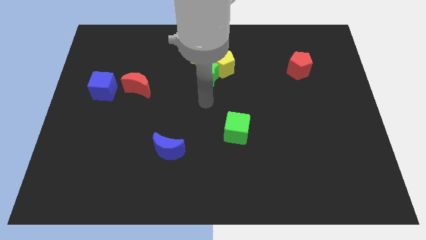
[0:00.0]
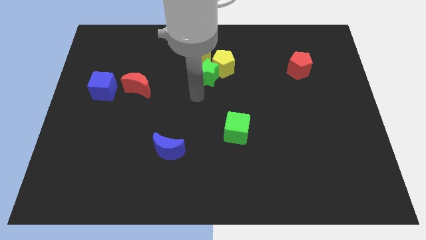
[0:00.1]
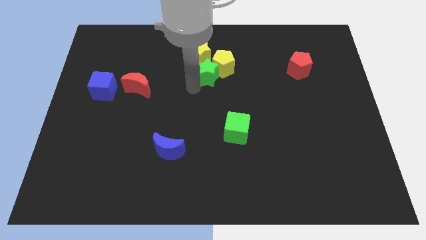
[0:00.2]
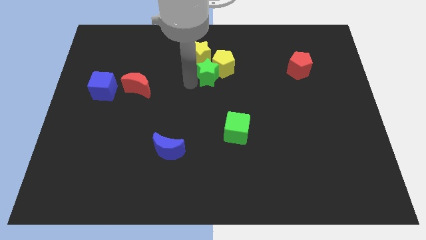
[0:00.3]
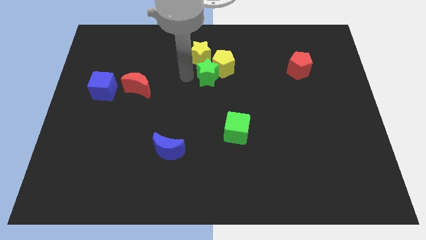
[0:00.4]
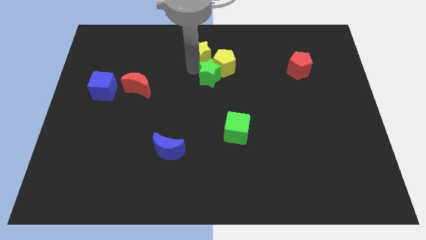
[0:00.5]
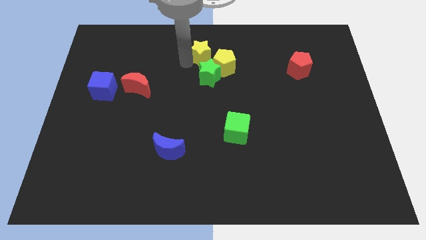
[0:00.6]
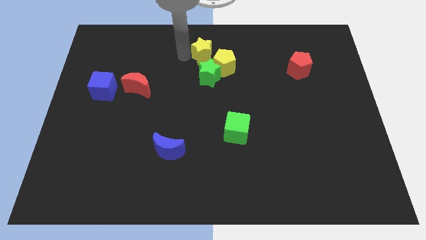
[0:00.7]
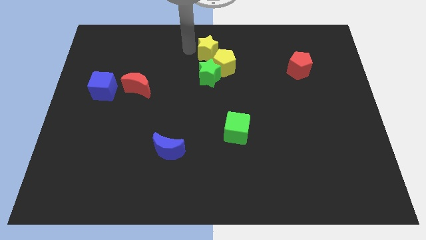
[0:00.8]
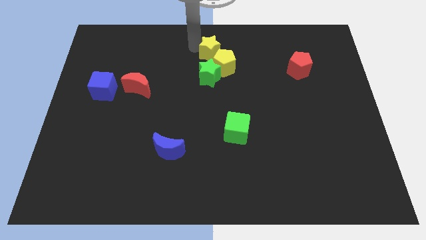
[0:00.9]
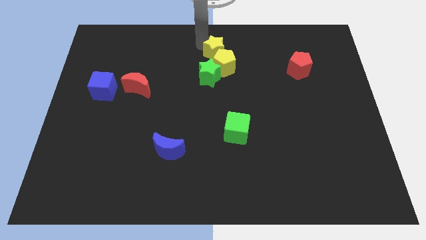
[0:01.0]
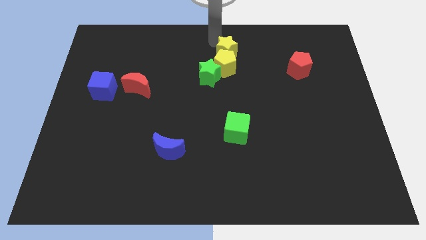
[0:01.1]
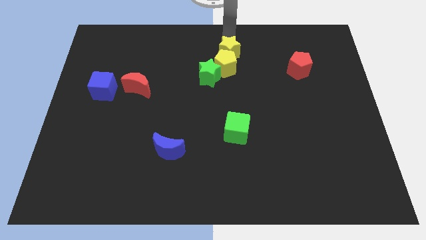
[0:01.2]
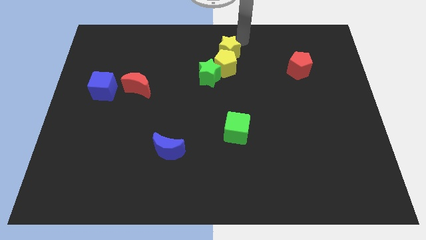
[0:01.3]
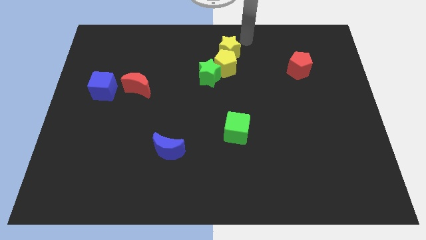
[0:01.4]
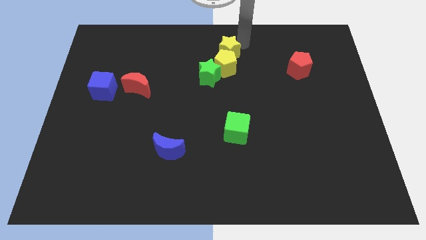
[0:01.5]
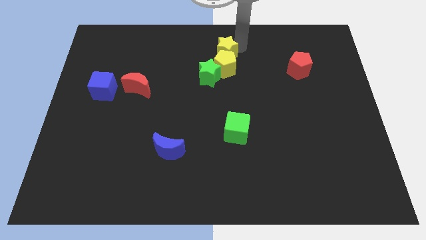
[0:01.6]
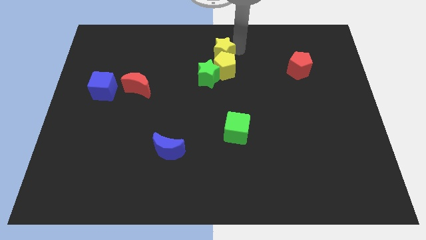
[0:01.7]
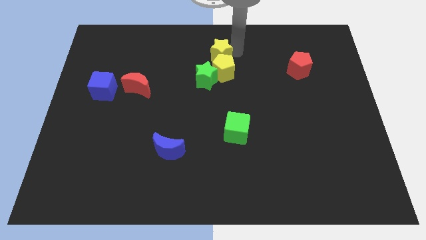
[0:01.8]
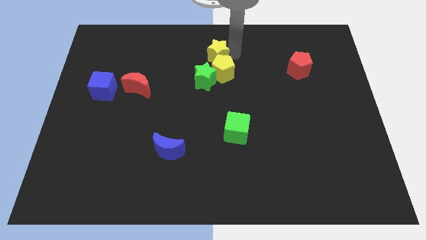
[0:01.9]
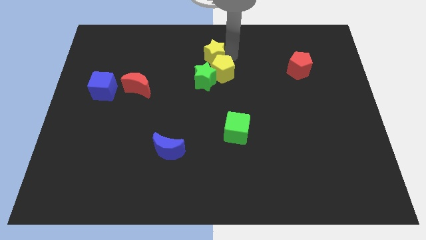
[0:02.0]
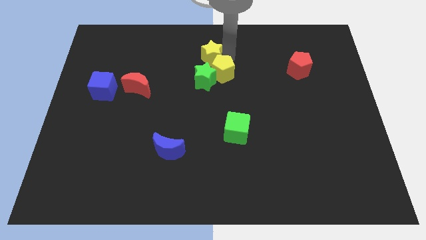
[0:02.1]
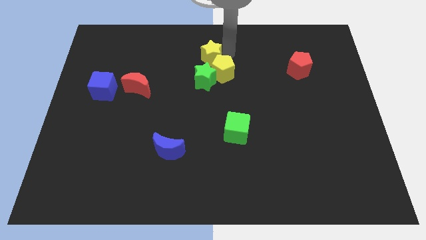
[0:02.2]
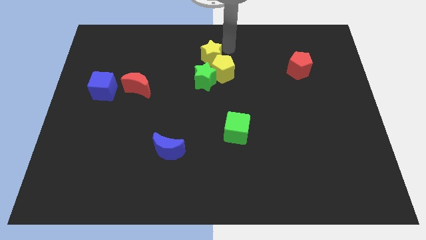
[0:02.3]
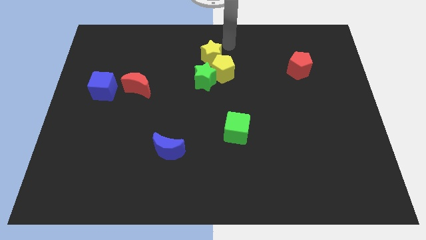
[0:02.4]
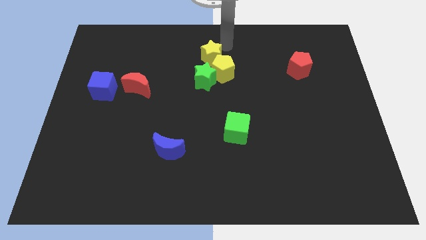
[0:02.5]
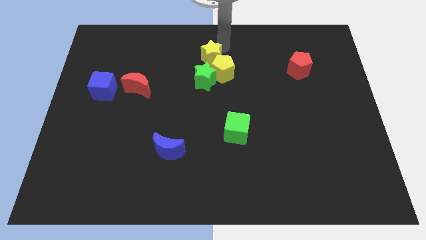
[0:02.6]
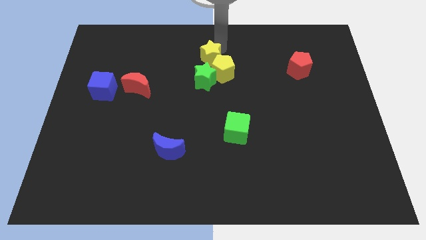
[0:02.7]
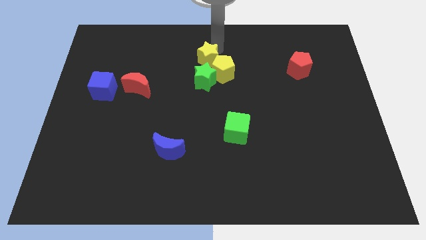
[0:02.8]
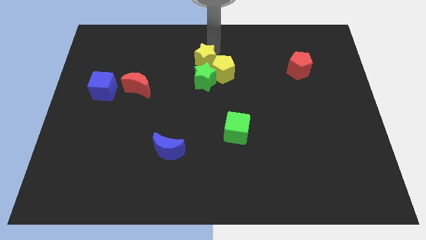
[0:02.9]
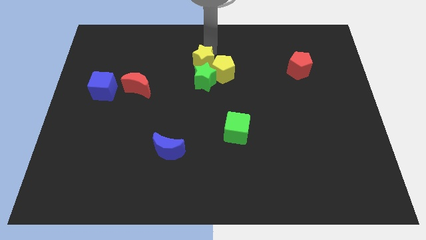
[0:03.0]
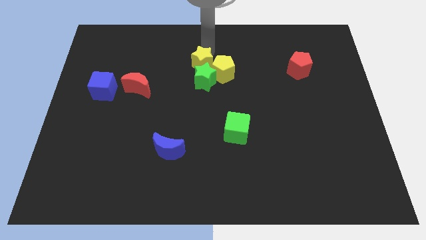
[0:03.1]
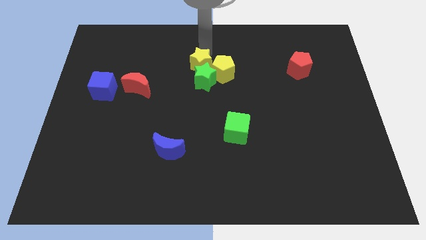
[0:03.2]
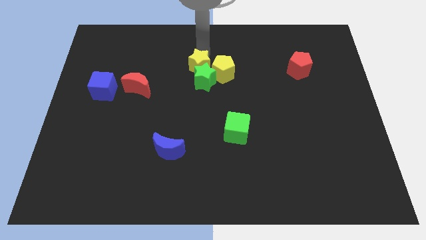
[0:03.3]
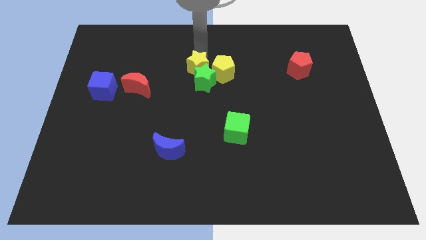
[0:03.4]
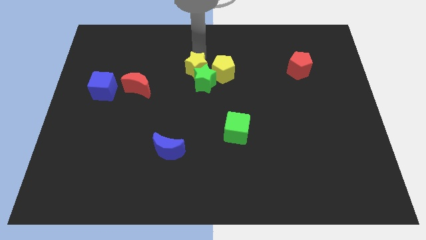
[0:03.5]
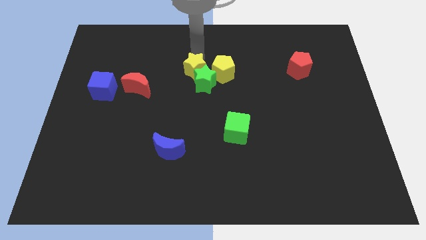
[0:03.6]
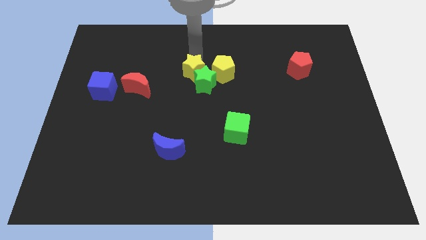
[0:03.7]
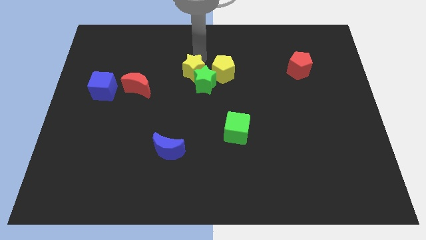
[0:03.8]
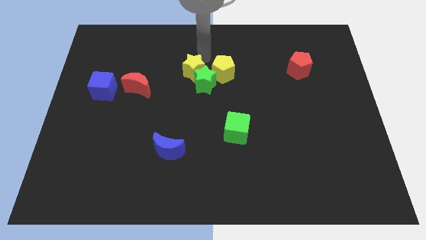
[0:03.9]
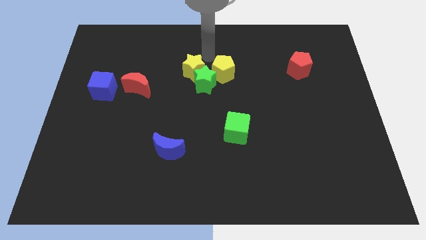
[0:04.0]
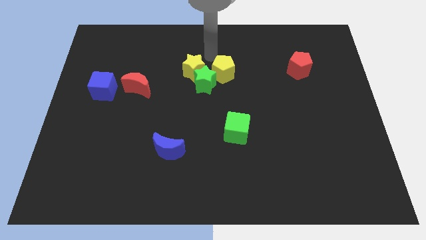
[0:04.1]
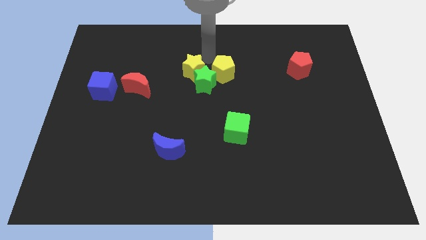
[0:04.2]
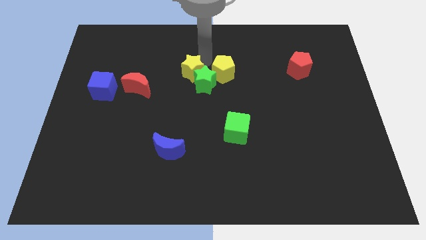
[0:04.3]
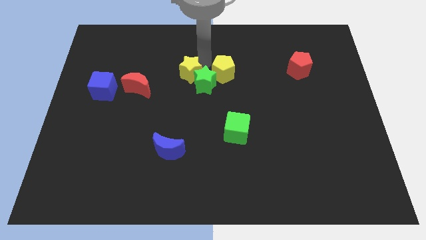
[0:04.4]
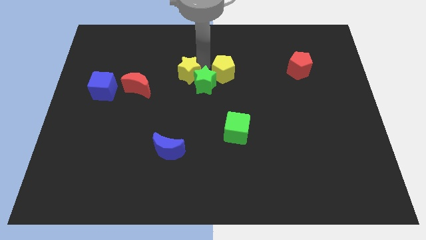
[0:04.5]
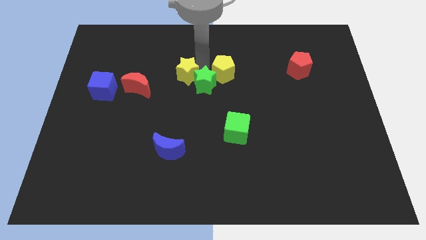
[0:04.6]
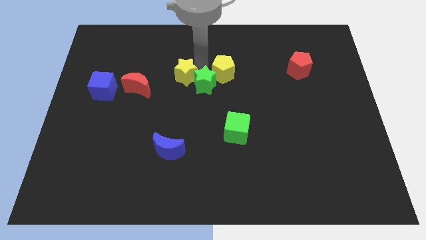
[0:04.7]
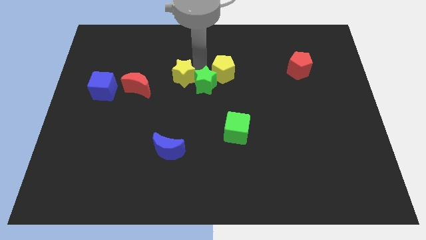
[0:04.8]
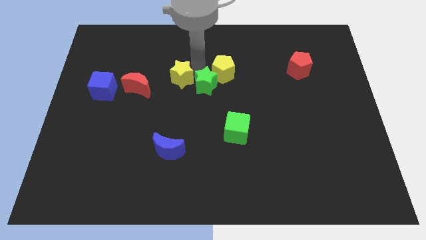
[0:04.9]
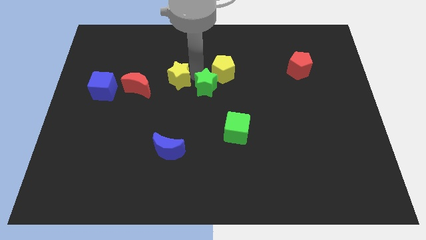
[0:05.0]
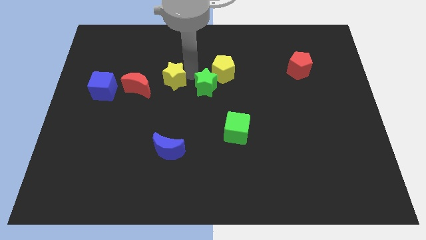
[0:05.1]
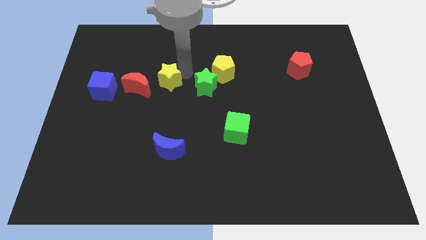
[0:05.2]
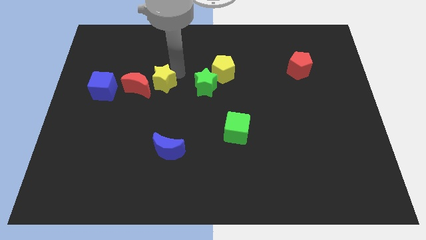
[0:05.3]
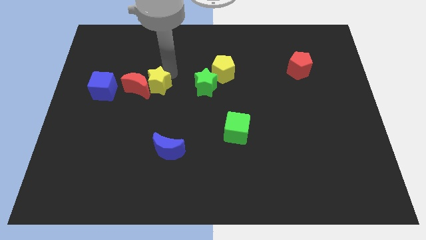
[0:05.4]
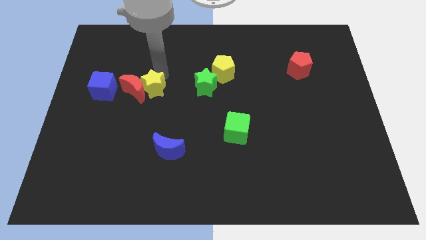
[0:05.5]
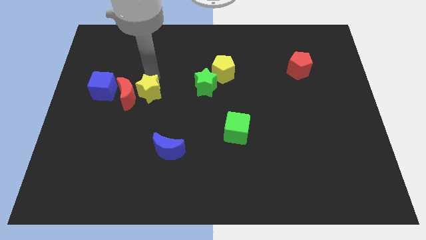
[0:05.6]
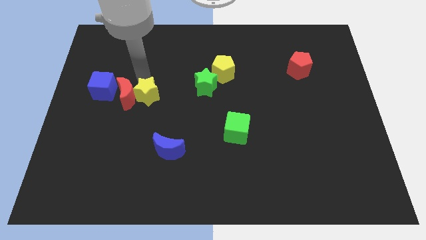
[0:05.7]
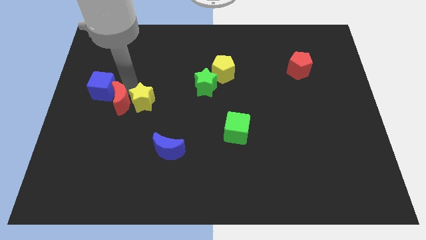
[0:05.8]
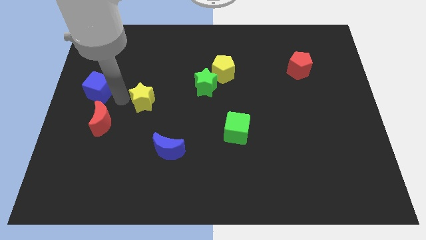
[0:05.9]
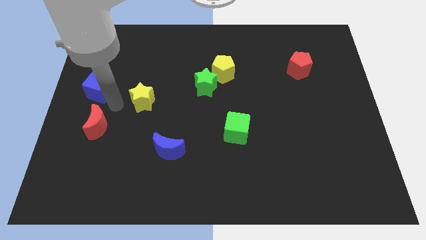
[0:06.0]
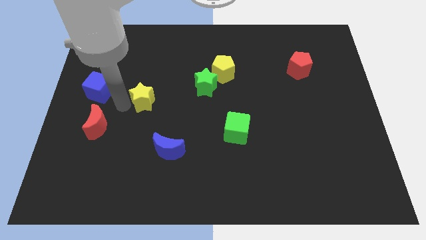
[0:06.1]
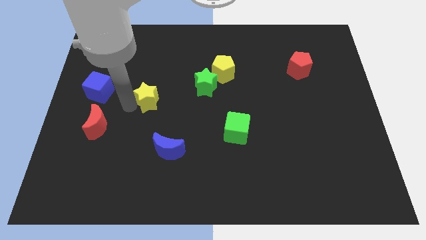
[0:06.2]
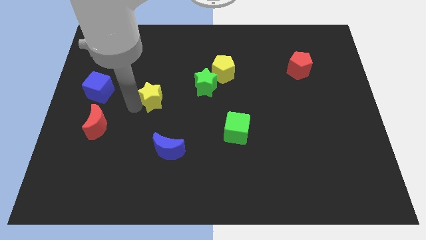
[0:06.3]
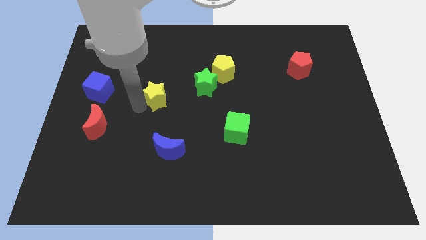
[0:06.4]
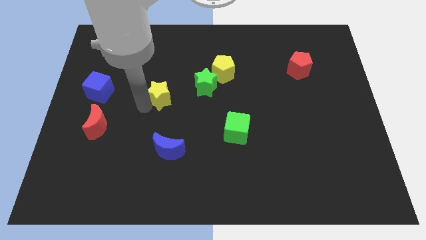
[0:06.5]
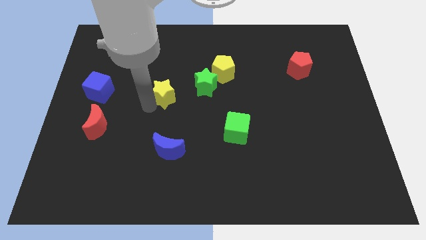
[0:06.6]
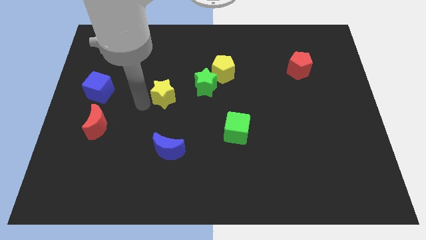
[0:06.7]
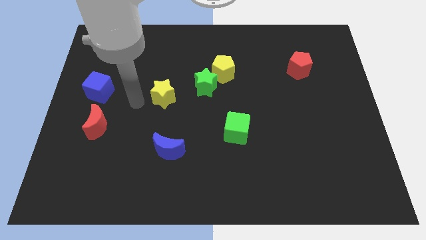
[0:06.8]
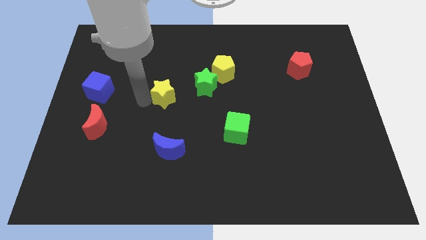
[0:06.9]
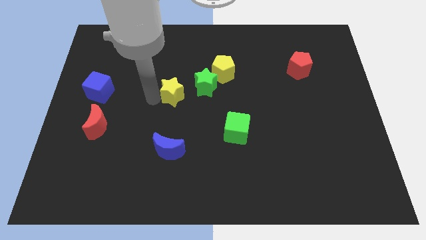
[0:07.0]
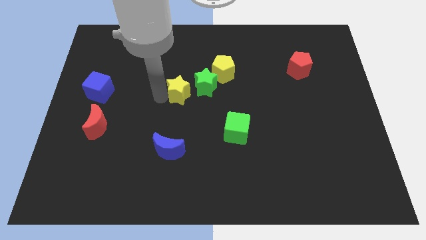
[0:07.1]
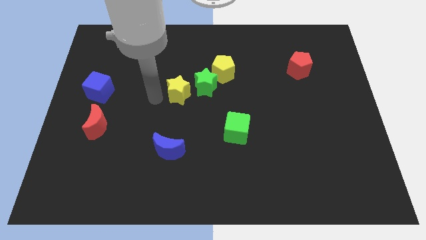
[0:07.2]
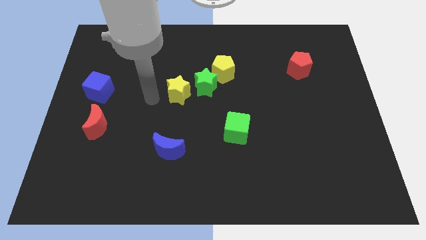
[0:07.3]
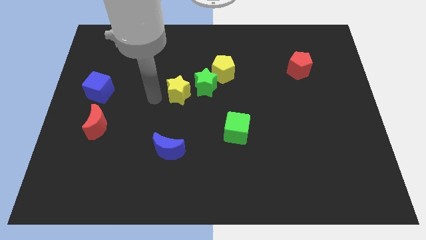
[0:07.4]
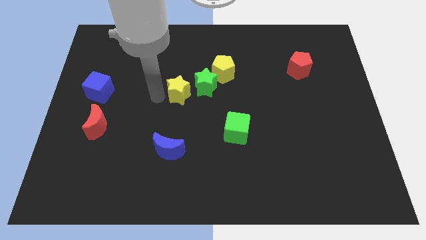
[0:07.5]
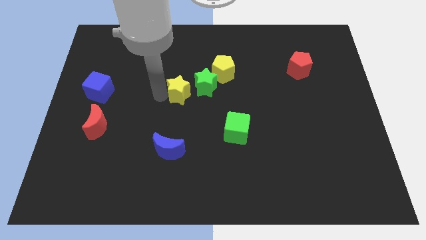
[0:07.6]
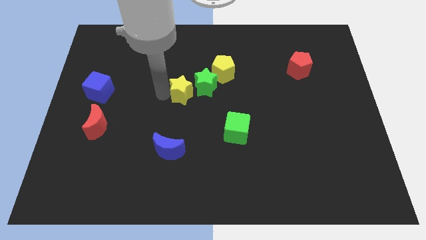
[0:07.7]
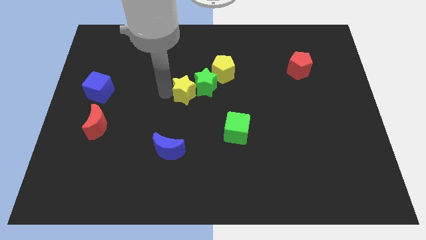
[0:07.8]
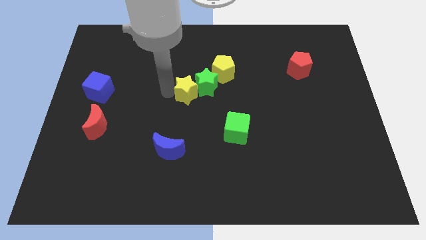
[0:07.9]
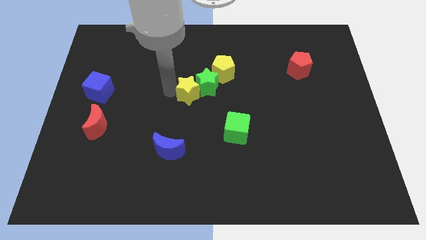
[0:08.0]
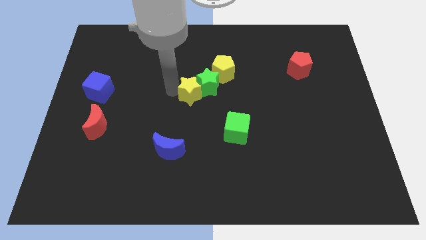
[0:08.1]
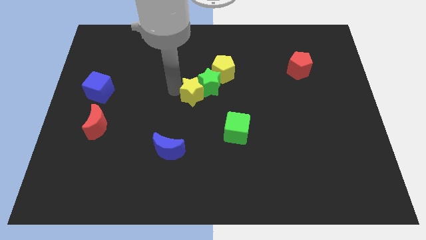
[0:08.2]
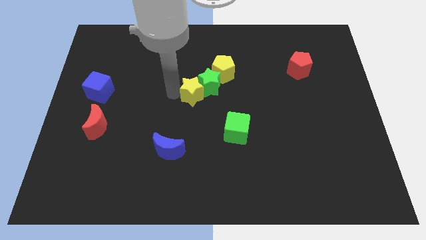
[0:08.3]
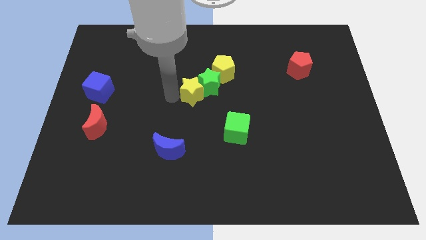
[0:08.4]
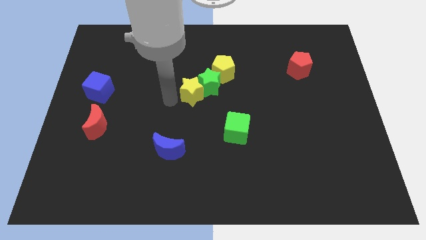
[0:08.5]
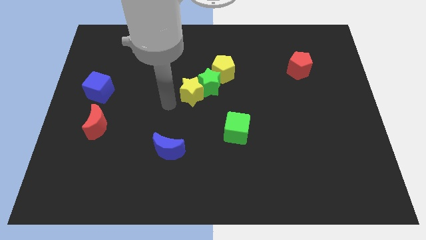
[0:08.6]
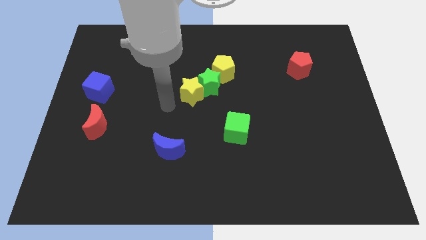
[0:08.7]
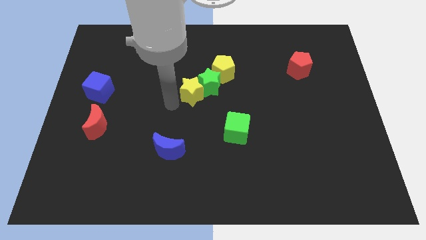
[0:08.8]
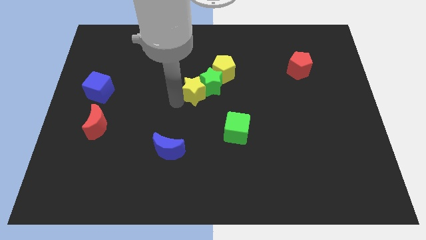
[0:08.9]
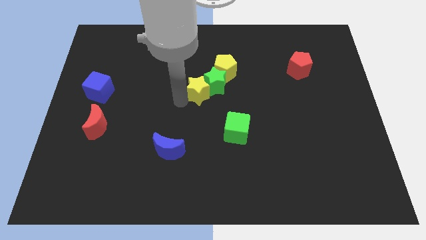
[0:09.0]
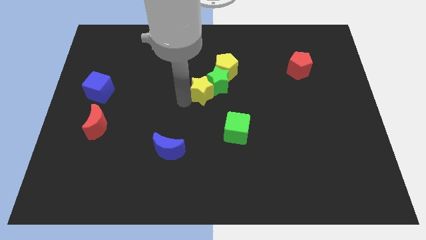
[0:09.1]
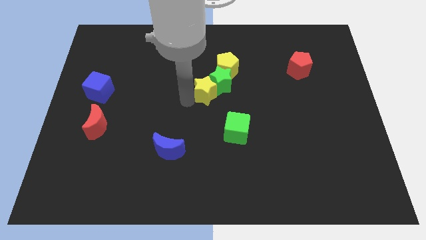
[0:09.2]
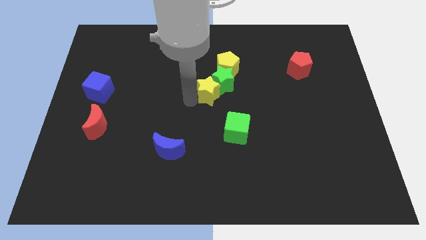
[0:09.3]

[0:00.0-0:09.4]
put the yellow star to the bottom side of the yellow pentagon
